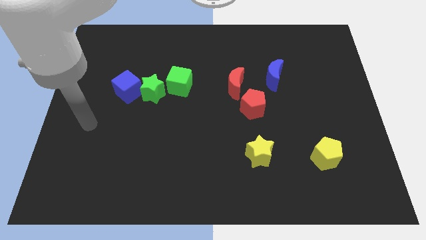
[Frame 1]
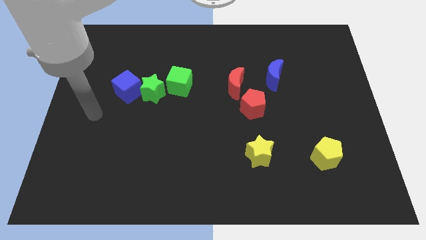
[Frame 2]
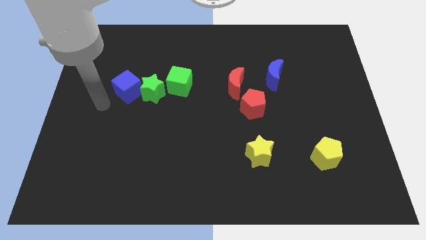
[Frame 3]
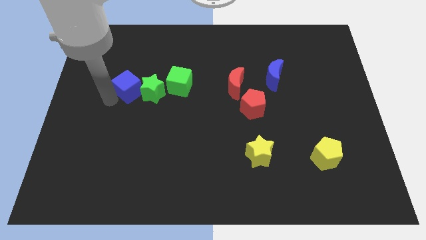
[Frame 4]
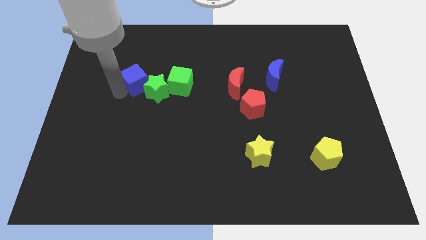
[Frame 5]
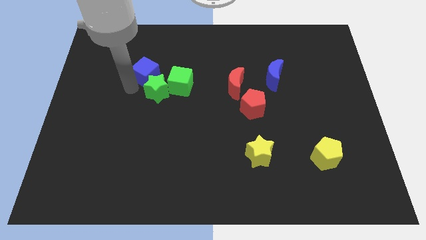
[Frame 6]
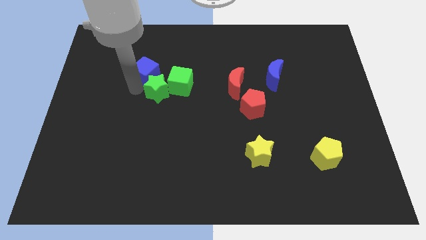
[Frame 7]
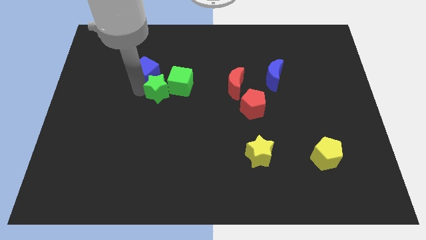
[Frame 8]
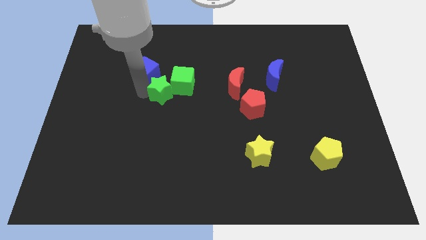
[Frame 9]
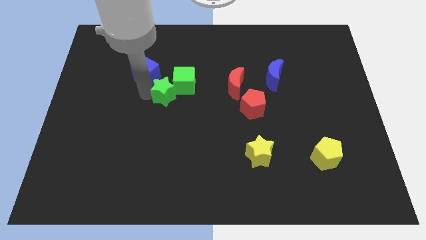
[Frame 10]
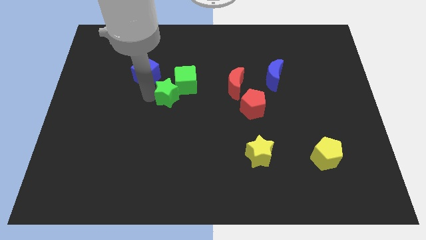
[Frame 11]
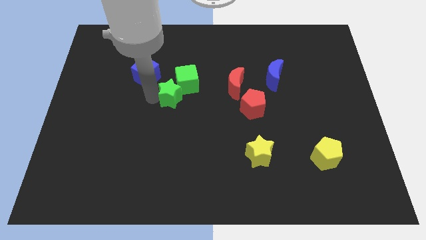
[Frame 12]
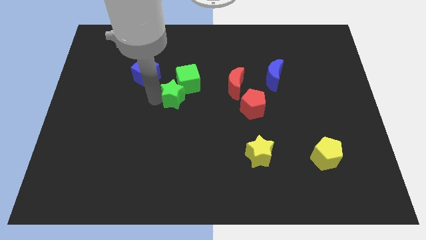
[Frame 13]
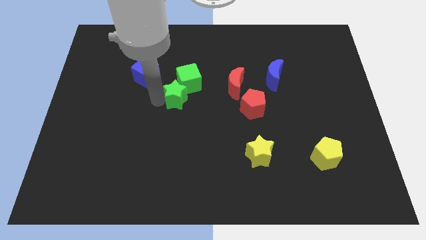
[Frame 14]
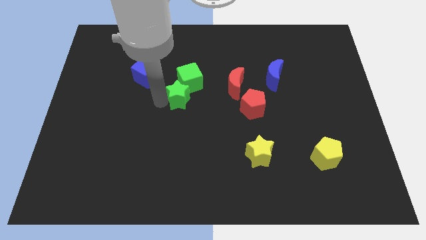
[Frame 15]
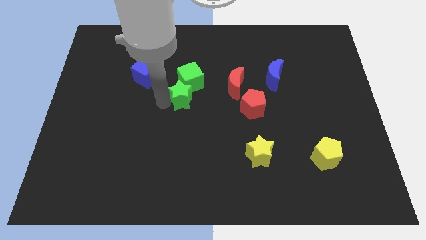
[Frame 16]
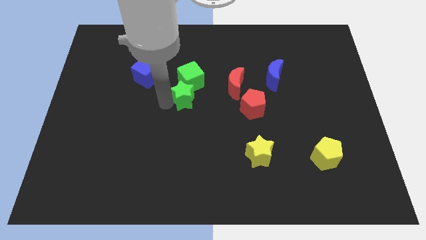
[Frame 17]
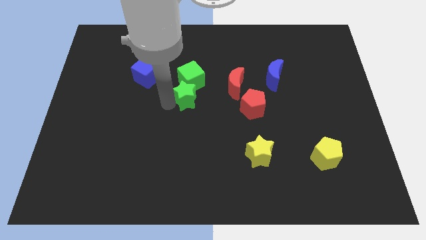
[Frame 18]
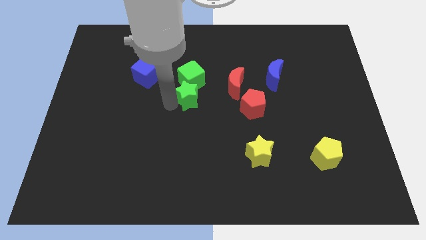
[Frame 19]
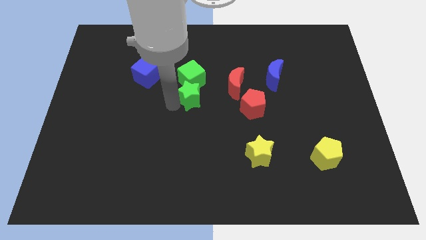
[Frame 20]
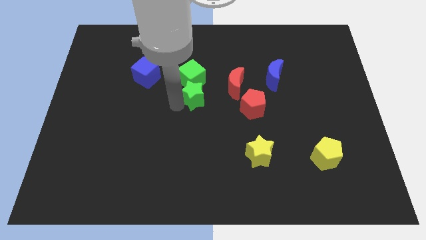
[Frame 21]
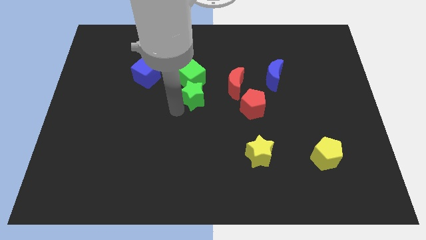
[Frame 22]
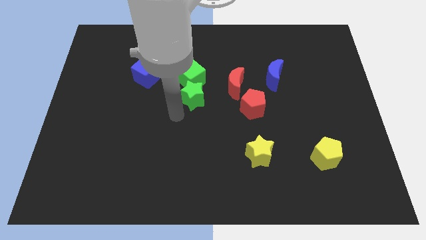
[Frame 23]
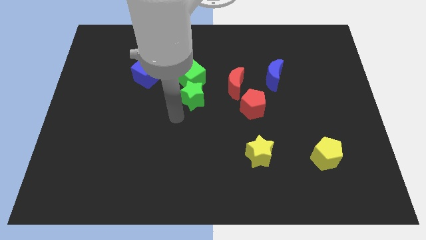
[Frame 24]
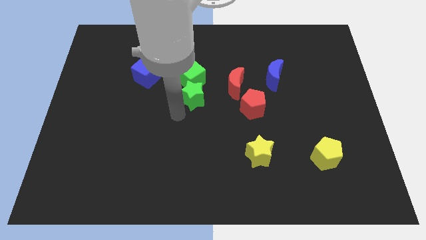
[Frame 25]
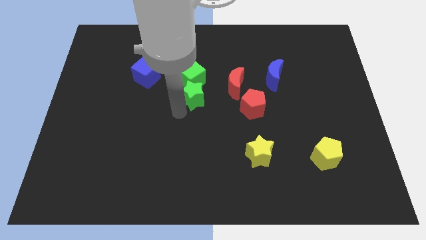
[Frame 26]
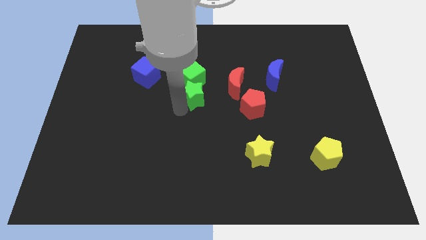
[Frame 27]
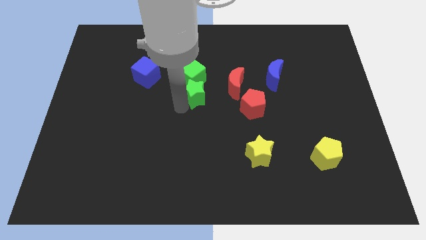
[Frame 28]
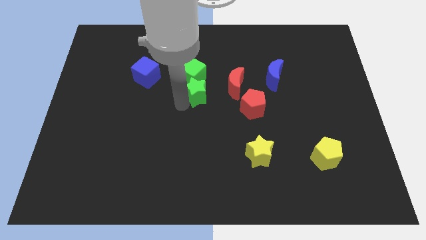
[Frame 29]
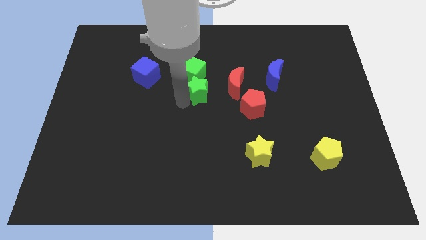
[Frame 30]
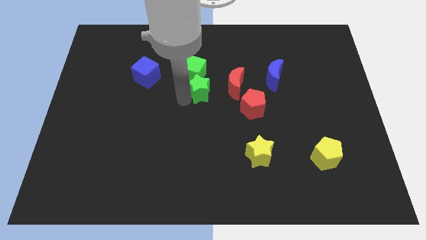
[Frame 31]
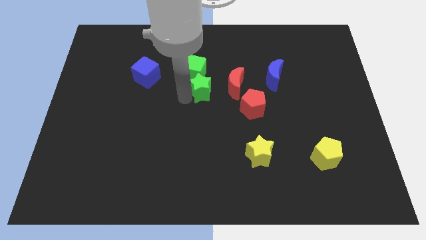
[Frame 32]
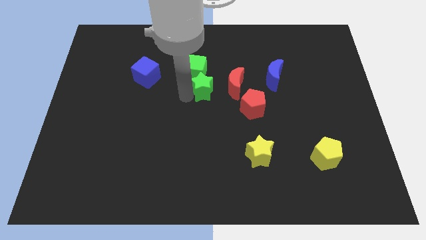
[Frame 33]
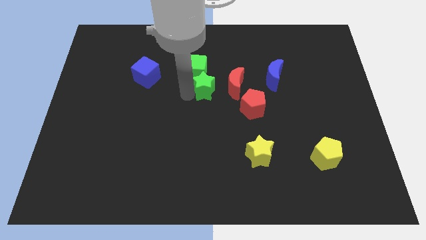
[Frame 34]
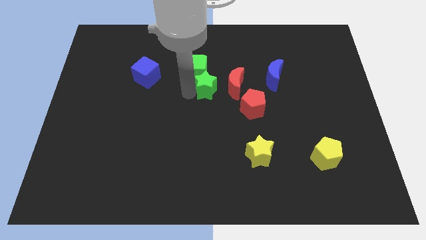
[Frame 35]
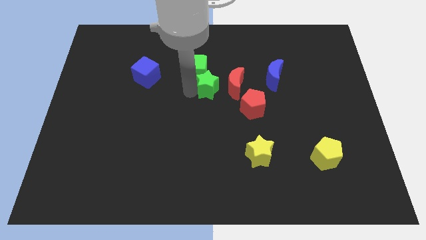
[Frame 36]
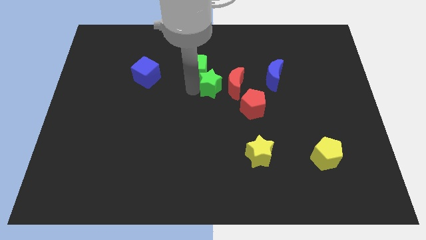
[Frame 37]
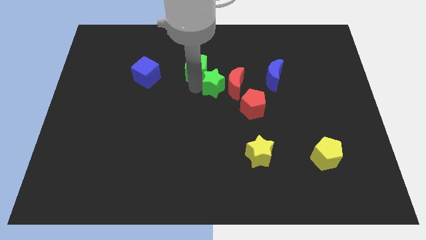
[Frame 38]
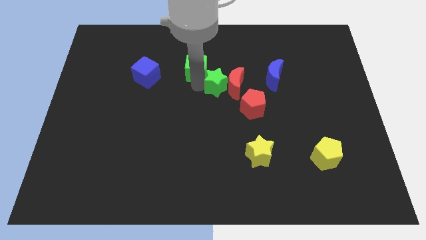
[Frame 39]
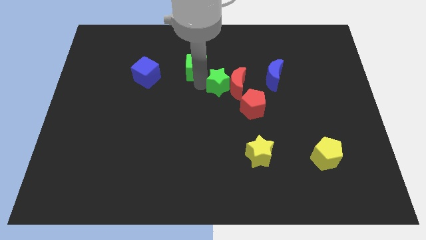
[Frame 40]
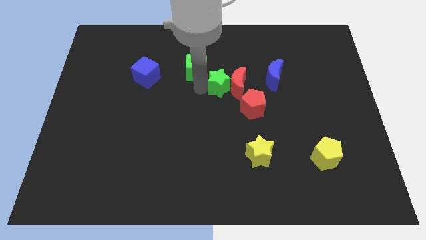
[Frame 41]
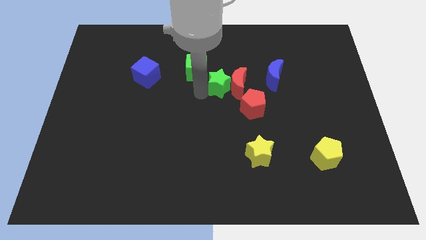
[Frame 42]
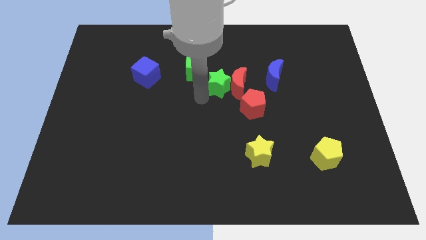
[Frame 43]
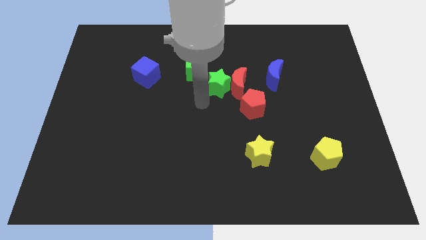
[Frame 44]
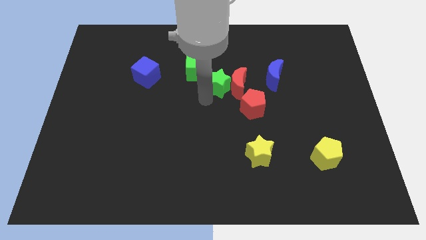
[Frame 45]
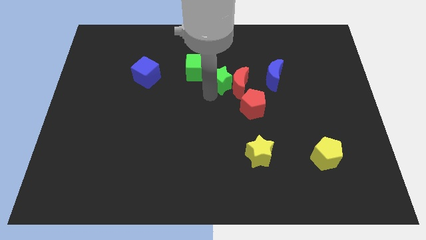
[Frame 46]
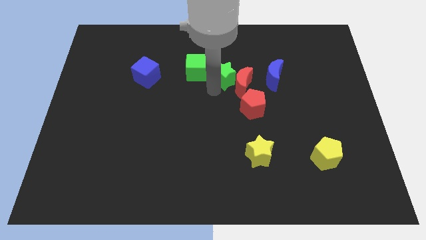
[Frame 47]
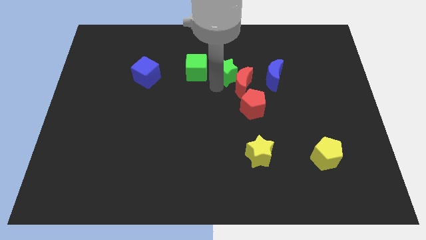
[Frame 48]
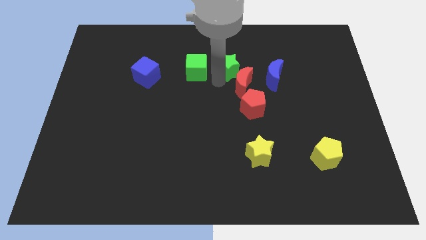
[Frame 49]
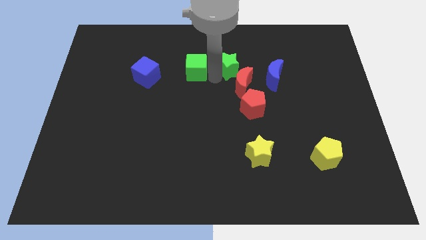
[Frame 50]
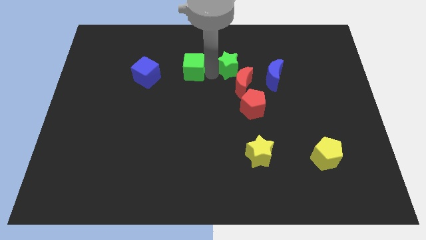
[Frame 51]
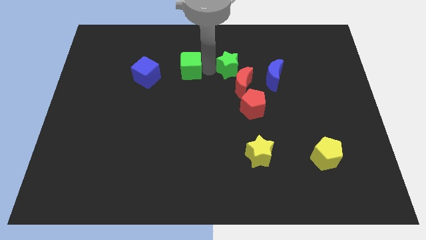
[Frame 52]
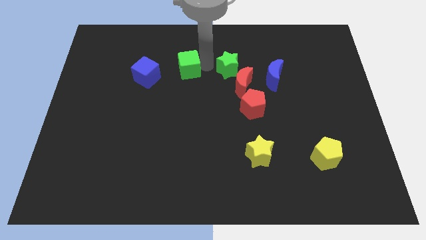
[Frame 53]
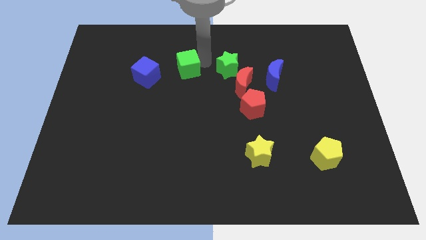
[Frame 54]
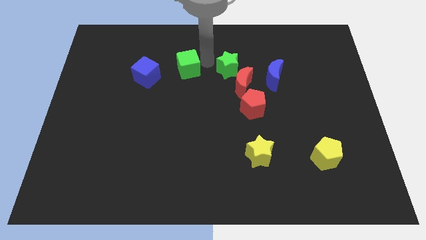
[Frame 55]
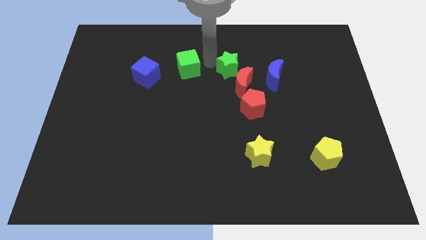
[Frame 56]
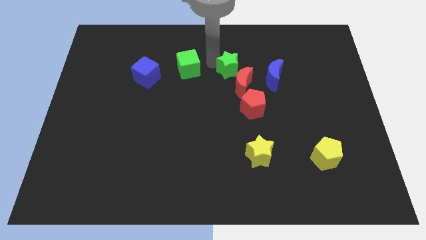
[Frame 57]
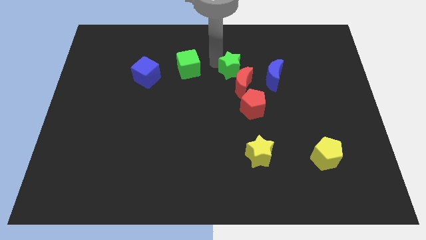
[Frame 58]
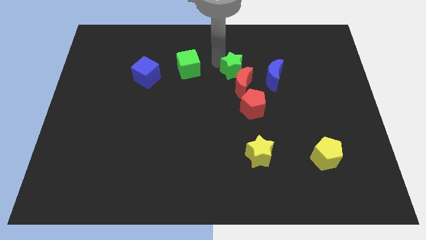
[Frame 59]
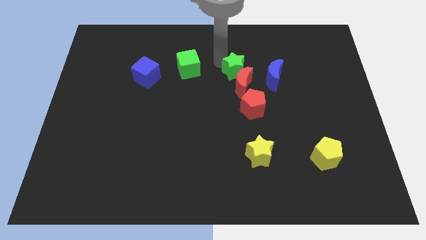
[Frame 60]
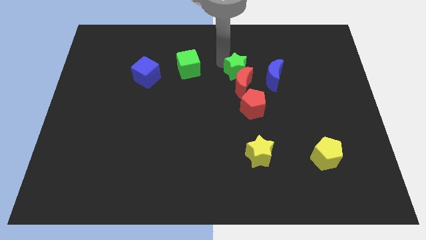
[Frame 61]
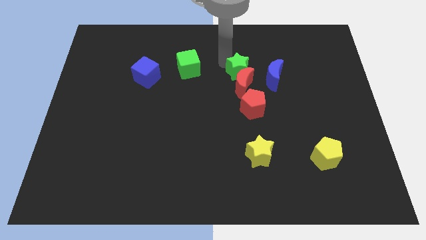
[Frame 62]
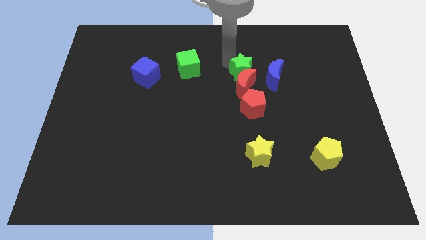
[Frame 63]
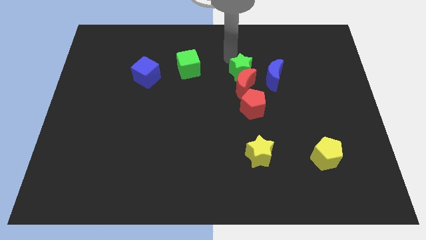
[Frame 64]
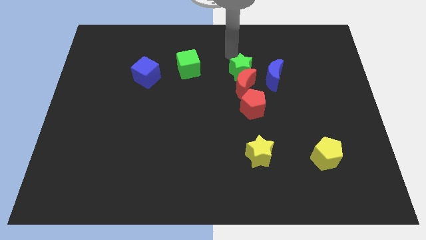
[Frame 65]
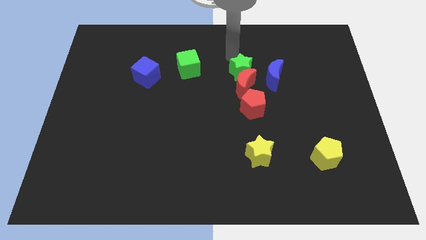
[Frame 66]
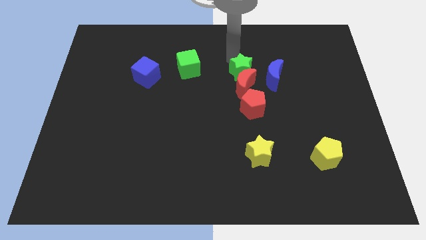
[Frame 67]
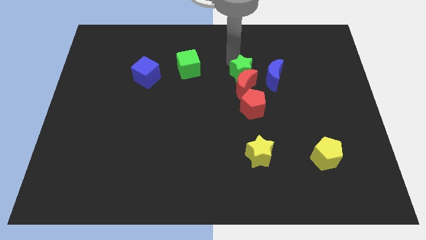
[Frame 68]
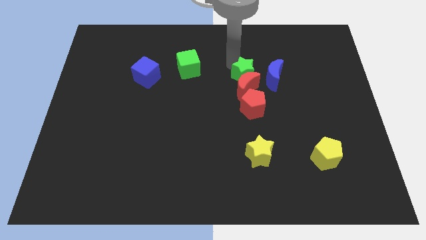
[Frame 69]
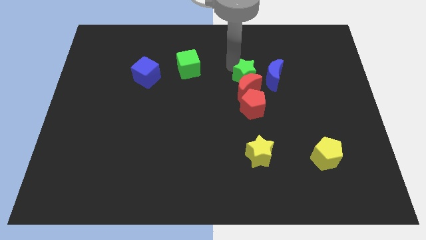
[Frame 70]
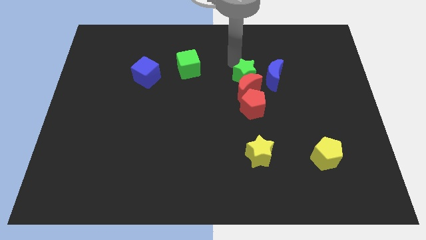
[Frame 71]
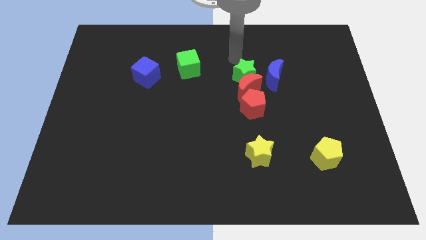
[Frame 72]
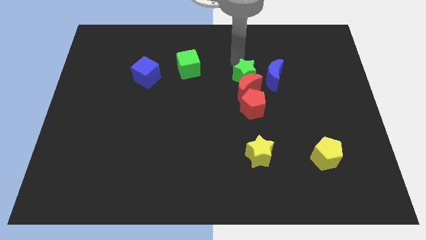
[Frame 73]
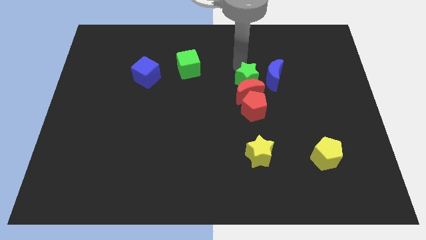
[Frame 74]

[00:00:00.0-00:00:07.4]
move the green star to the bottom left of the blue moon
